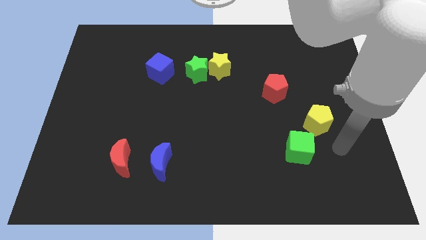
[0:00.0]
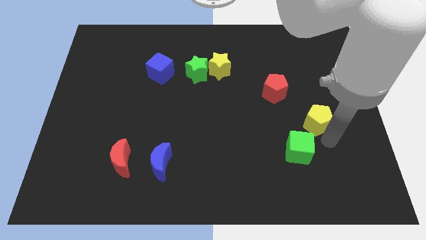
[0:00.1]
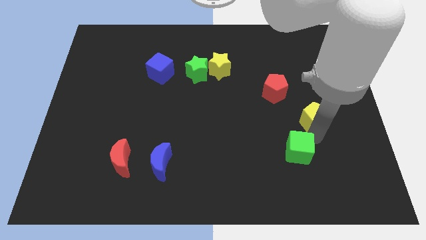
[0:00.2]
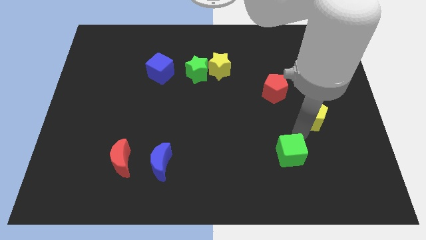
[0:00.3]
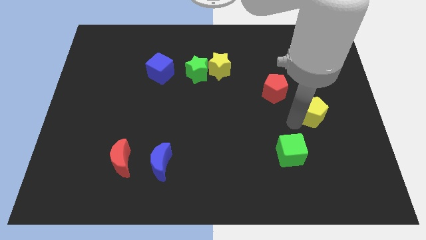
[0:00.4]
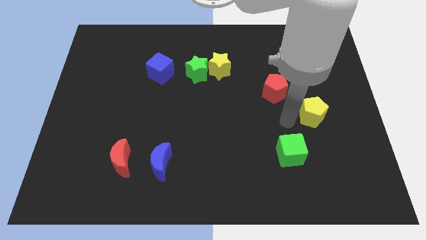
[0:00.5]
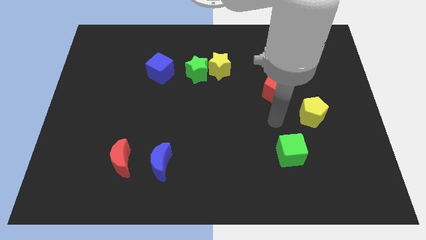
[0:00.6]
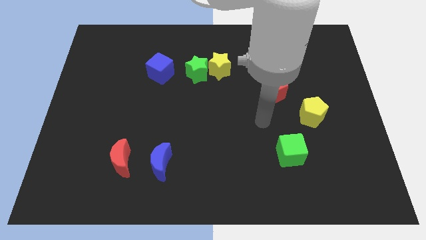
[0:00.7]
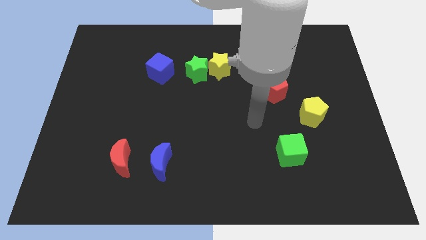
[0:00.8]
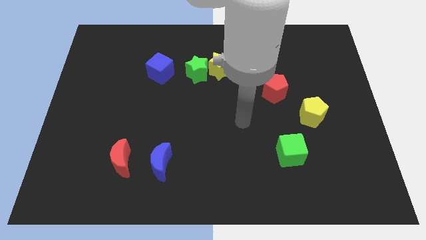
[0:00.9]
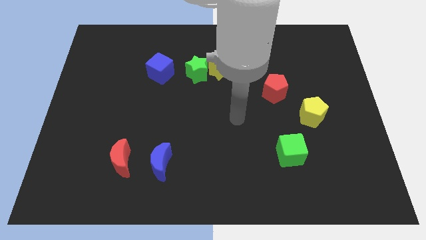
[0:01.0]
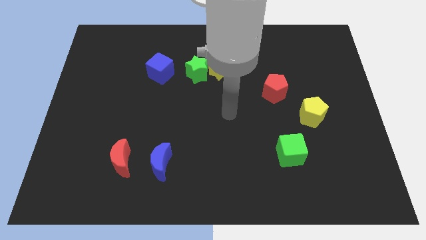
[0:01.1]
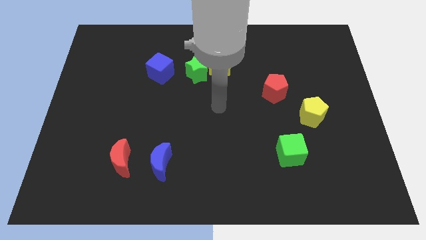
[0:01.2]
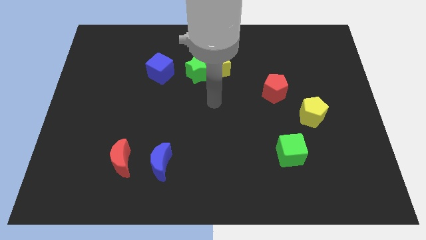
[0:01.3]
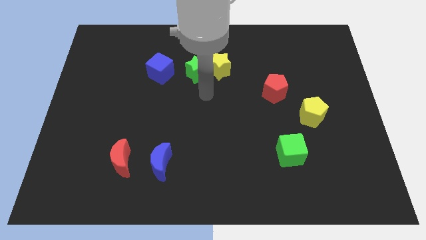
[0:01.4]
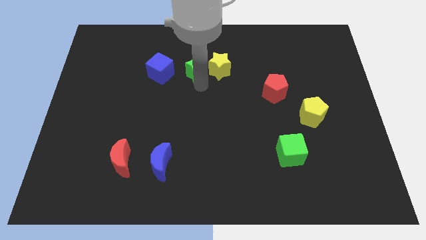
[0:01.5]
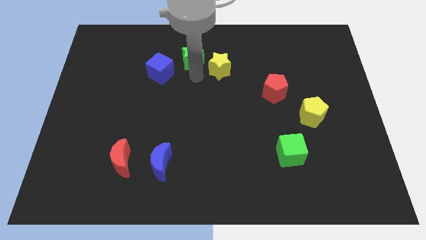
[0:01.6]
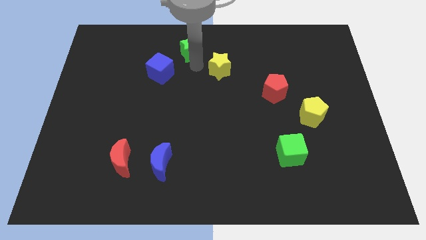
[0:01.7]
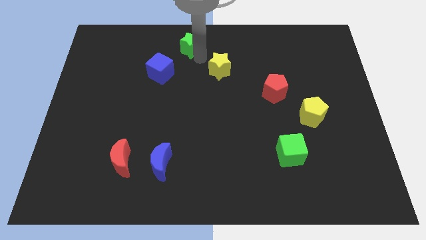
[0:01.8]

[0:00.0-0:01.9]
separate the yellow star from the green star

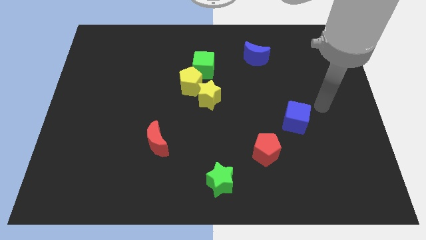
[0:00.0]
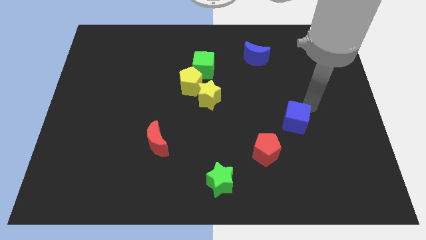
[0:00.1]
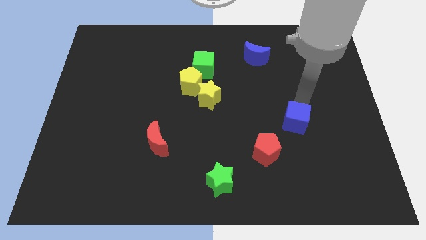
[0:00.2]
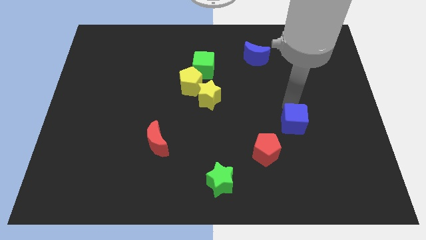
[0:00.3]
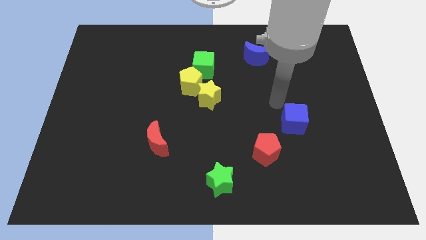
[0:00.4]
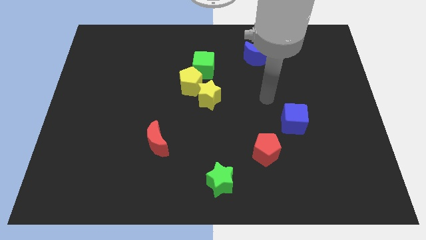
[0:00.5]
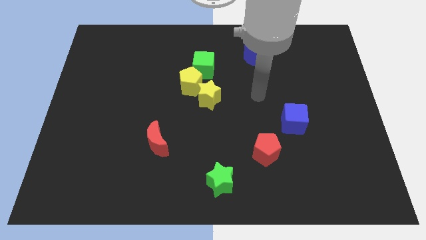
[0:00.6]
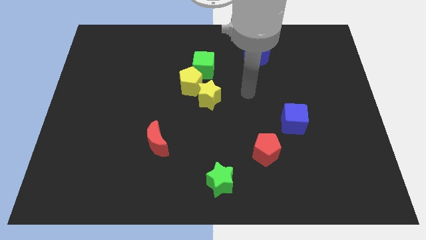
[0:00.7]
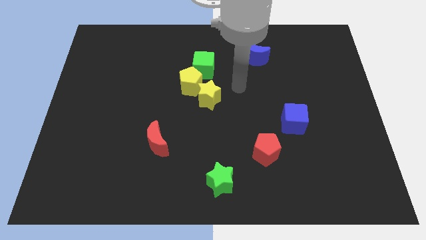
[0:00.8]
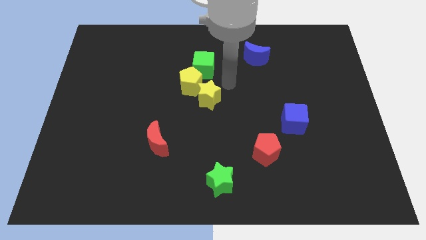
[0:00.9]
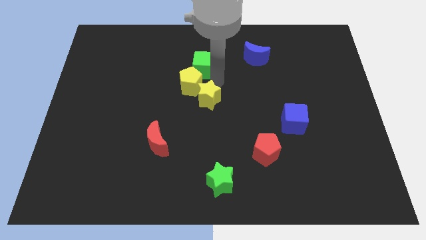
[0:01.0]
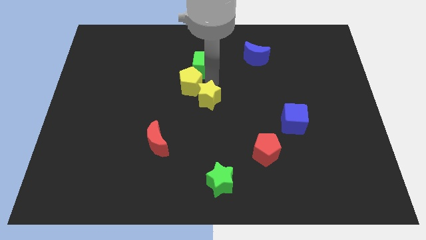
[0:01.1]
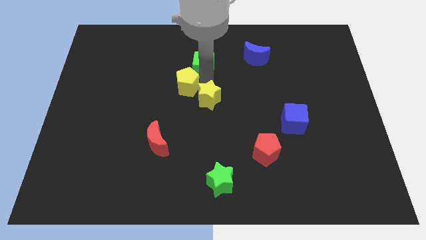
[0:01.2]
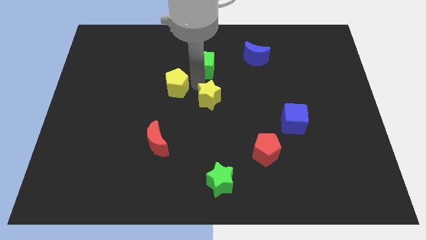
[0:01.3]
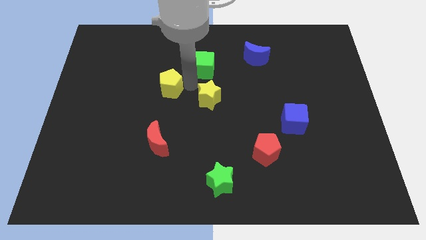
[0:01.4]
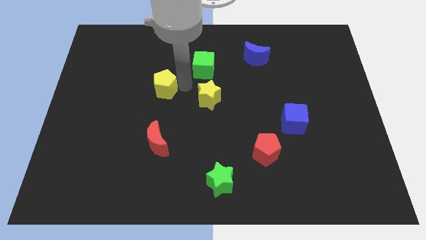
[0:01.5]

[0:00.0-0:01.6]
move the yellow pentagon away from the yellow star and green cube

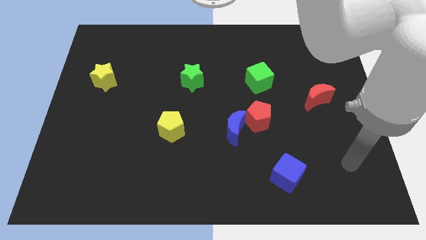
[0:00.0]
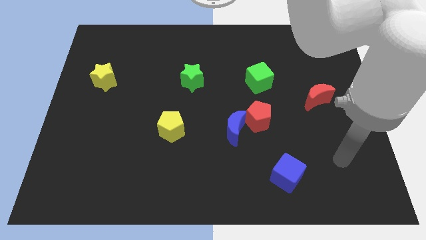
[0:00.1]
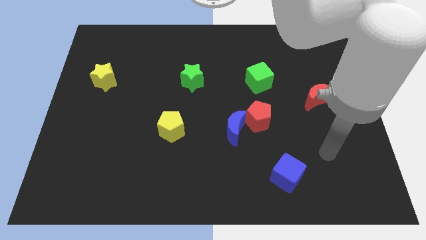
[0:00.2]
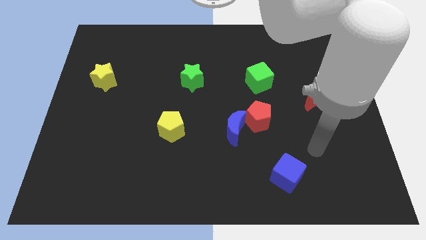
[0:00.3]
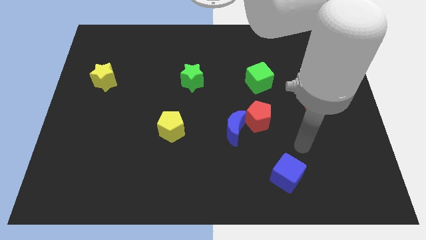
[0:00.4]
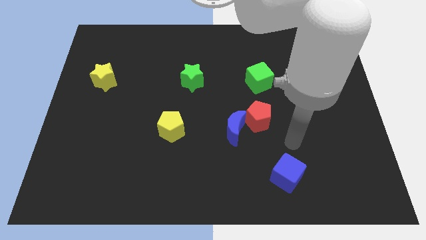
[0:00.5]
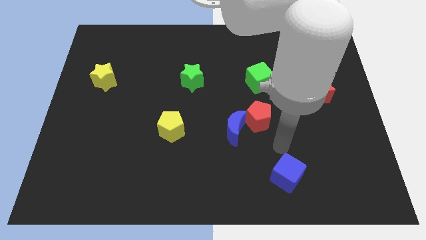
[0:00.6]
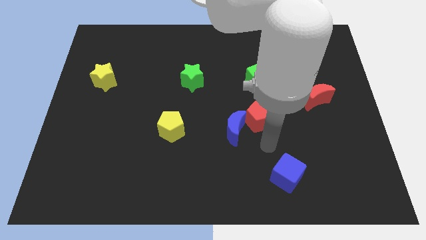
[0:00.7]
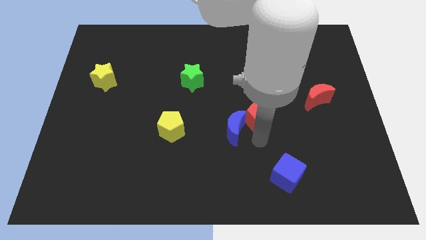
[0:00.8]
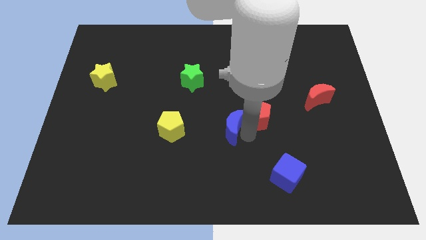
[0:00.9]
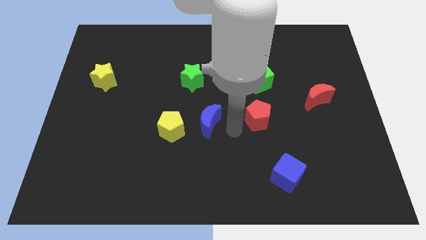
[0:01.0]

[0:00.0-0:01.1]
pull the red pentagon apart from the blue moon

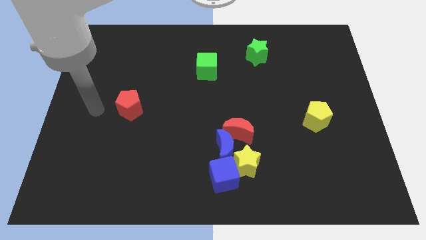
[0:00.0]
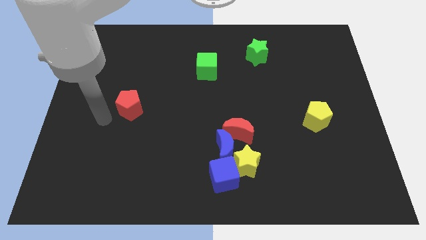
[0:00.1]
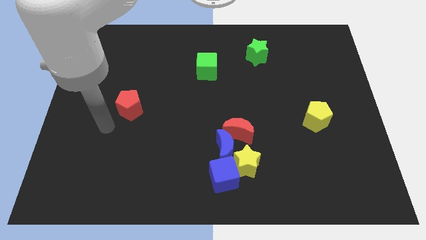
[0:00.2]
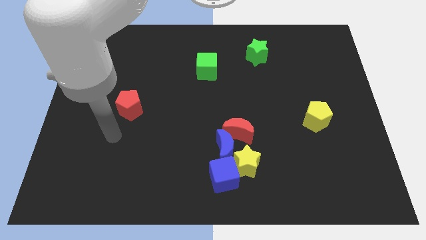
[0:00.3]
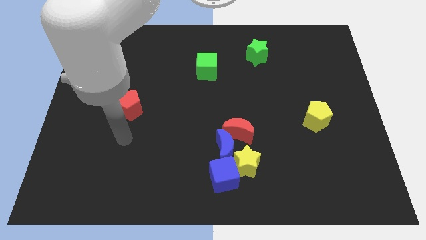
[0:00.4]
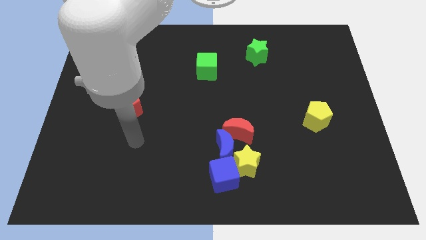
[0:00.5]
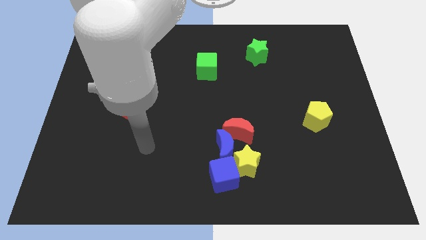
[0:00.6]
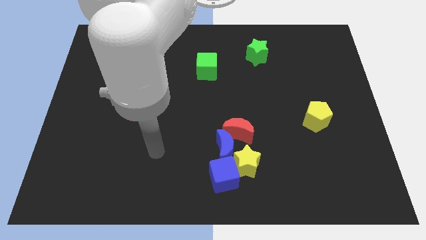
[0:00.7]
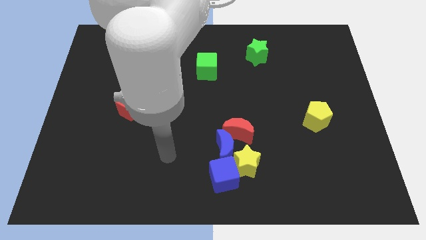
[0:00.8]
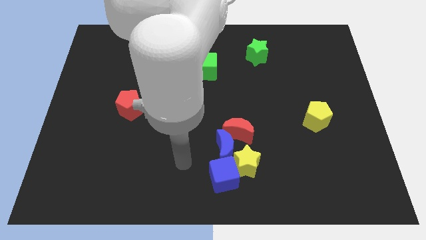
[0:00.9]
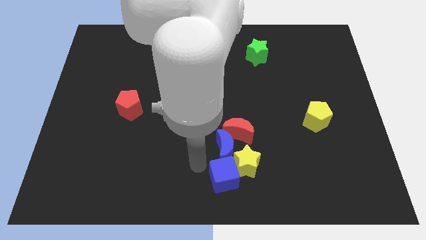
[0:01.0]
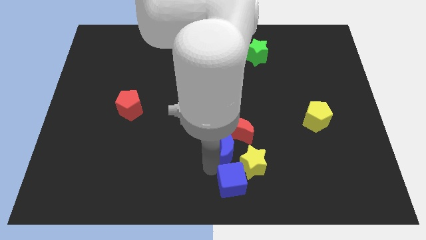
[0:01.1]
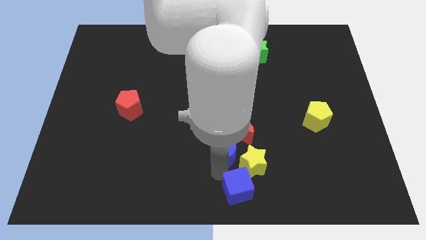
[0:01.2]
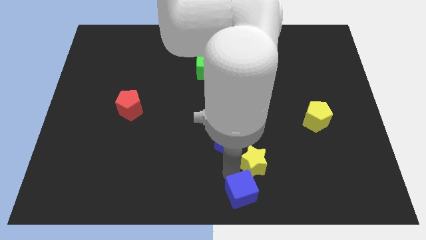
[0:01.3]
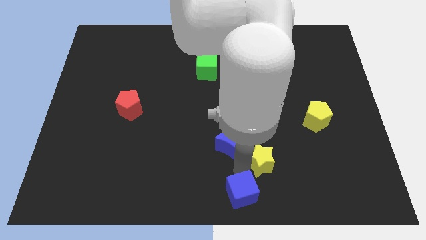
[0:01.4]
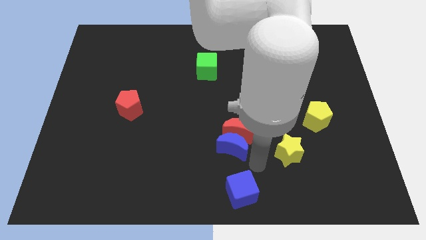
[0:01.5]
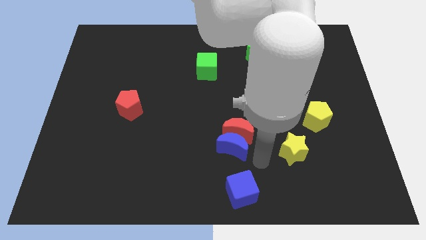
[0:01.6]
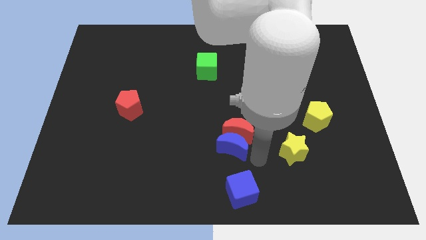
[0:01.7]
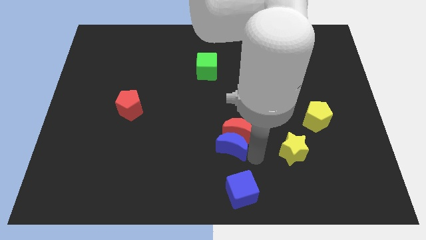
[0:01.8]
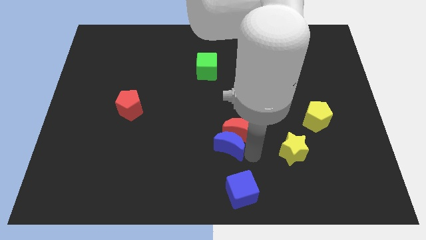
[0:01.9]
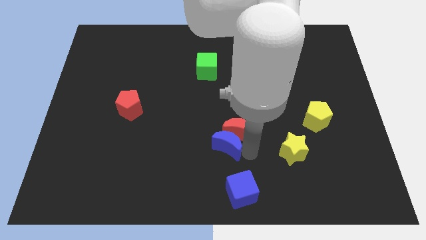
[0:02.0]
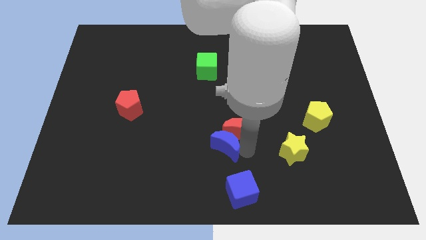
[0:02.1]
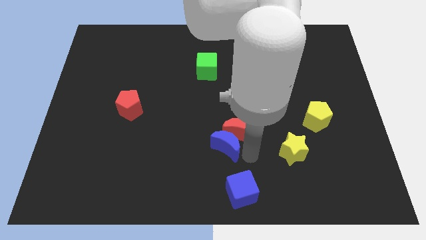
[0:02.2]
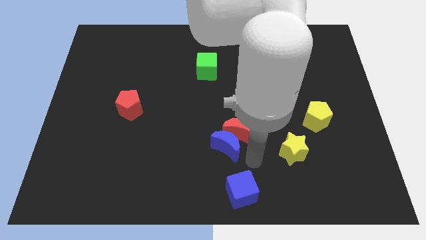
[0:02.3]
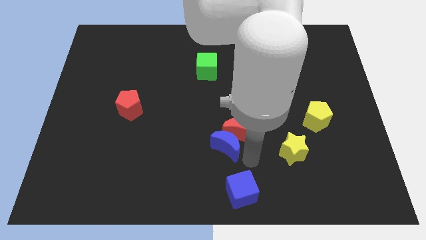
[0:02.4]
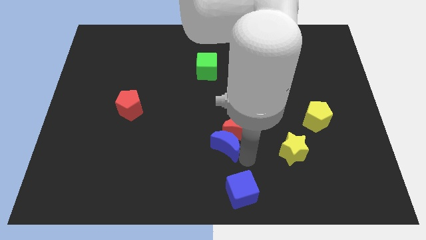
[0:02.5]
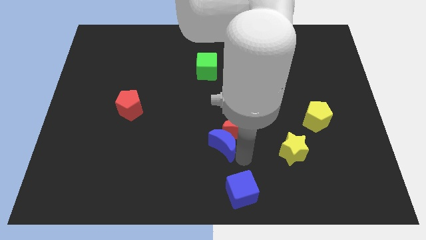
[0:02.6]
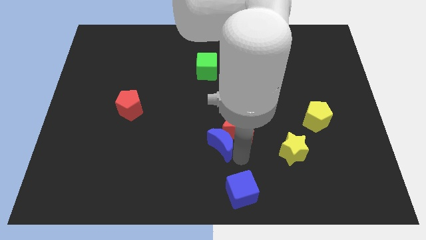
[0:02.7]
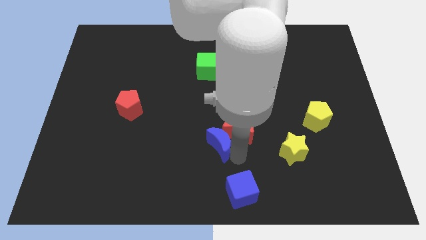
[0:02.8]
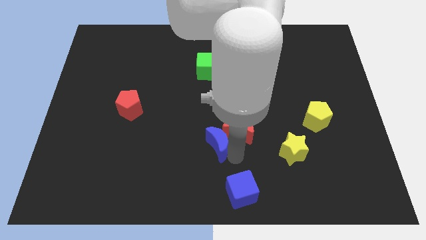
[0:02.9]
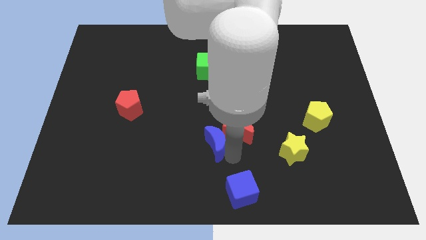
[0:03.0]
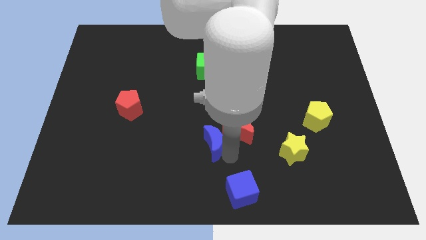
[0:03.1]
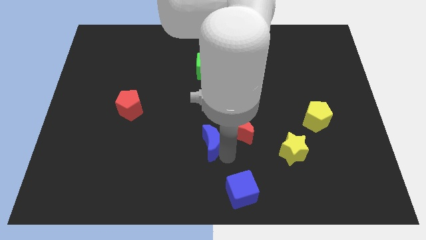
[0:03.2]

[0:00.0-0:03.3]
separate the blue moon from the clump

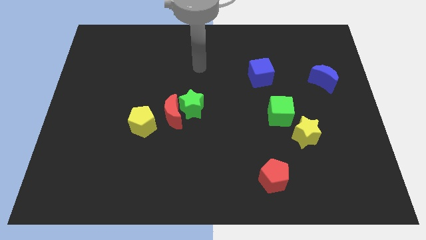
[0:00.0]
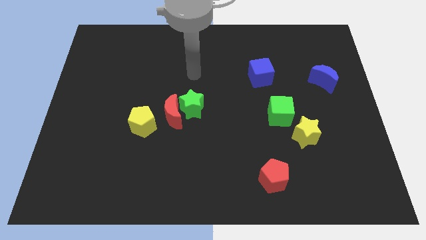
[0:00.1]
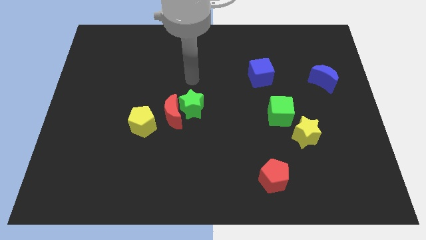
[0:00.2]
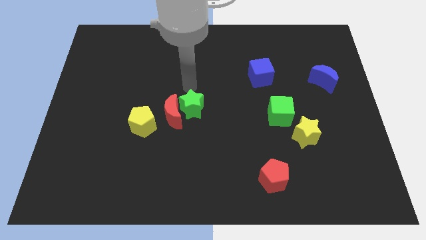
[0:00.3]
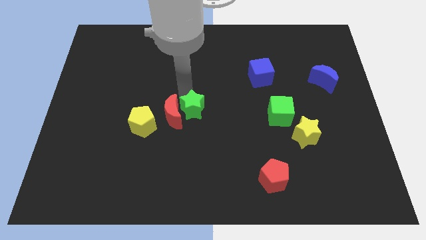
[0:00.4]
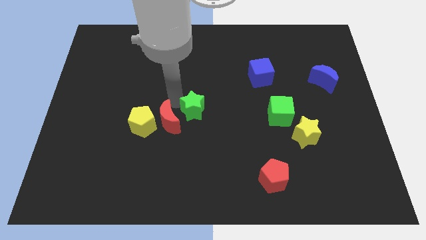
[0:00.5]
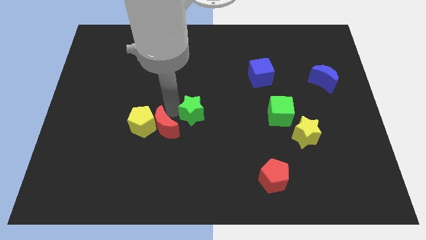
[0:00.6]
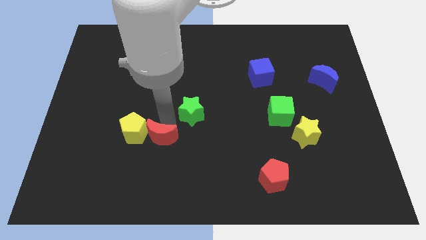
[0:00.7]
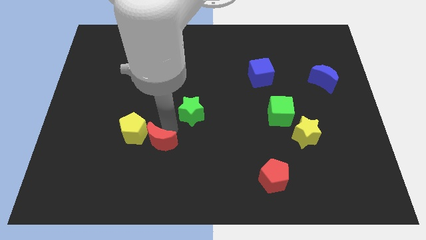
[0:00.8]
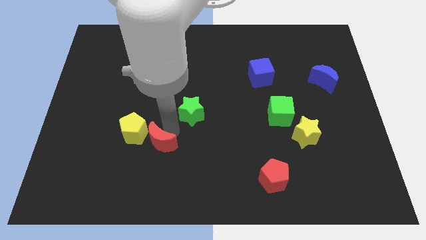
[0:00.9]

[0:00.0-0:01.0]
separate the green star from the red moon

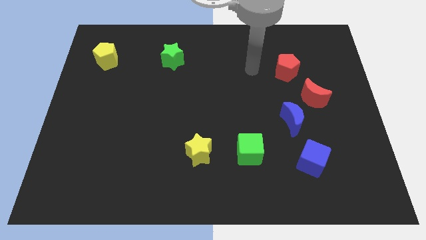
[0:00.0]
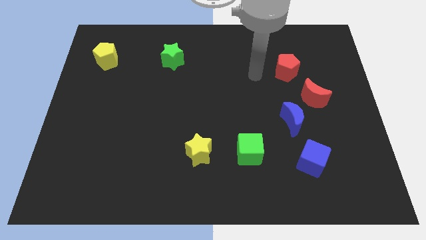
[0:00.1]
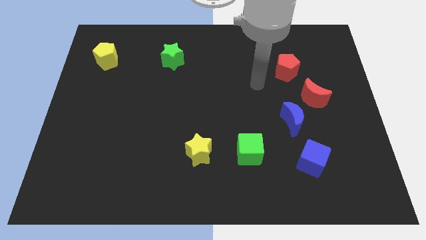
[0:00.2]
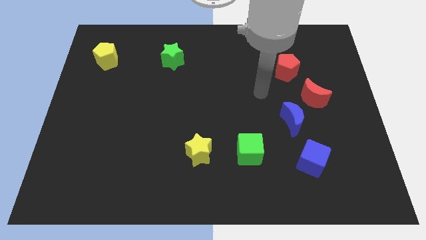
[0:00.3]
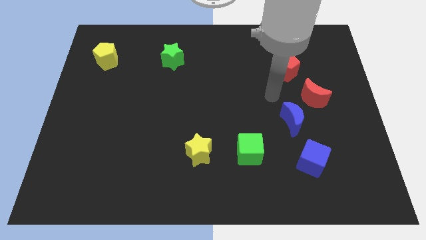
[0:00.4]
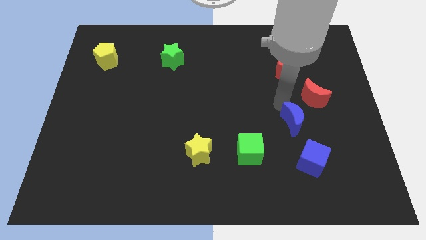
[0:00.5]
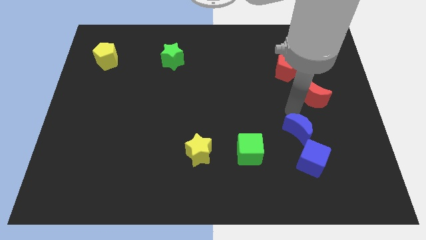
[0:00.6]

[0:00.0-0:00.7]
pull the red moon apart from the blue moon
